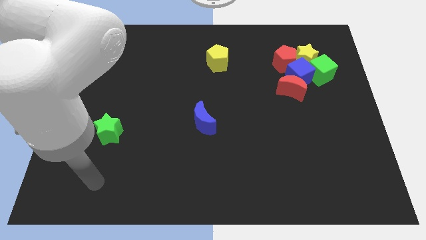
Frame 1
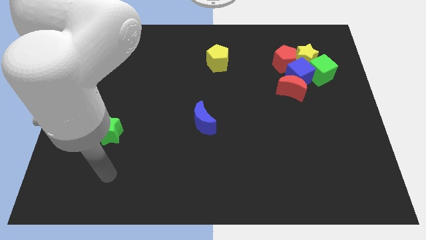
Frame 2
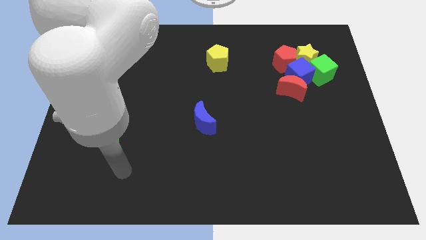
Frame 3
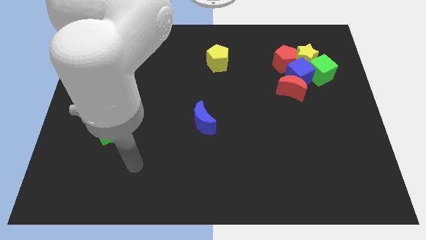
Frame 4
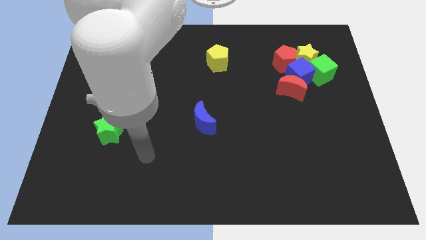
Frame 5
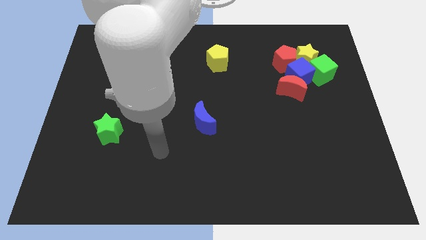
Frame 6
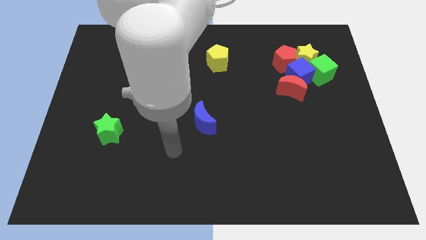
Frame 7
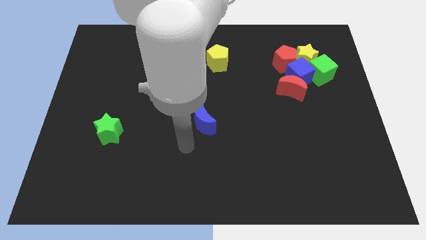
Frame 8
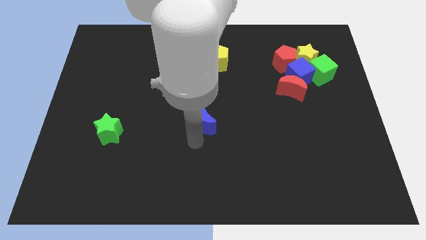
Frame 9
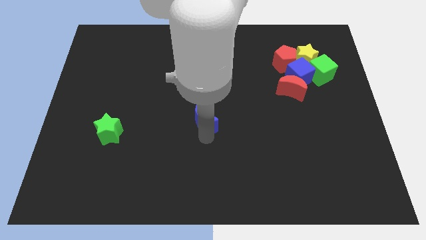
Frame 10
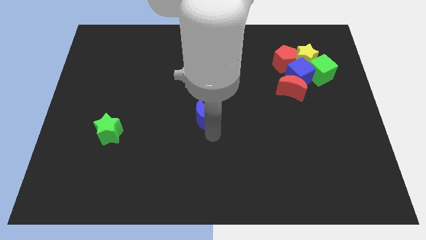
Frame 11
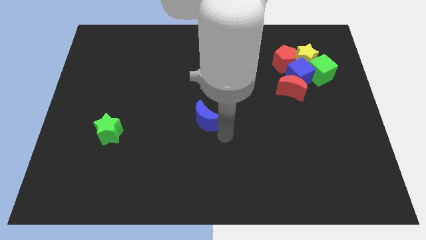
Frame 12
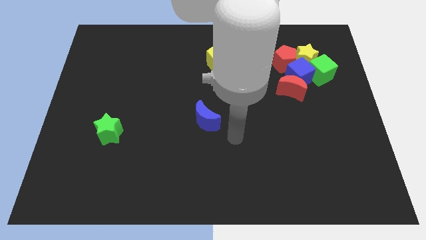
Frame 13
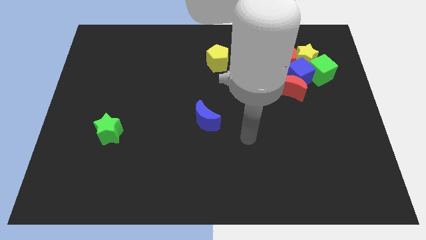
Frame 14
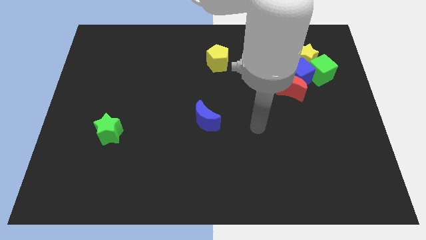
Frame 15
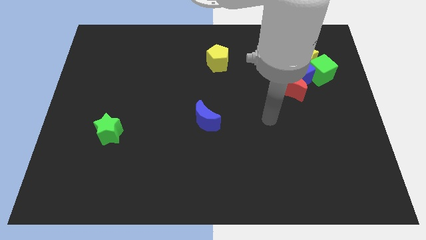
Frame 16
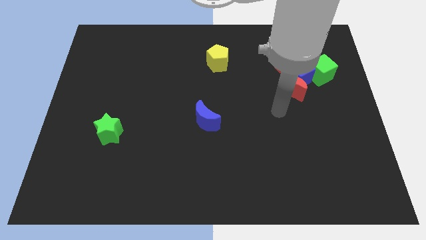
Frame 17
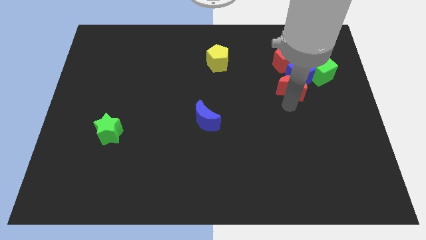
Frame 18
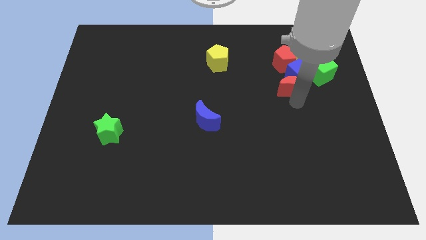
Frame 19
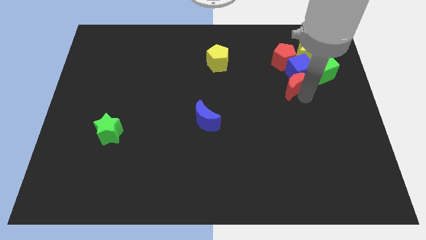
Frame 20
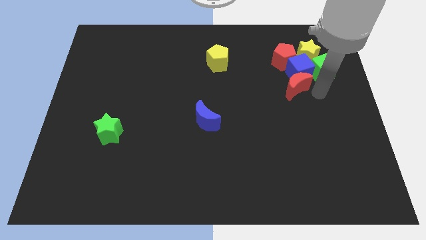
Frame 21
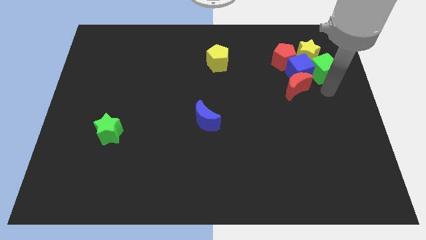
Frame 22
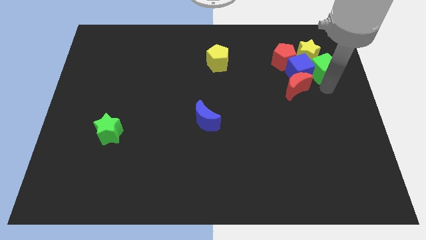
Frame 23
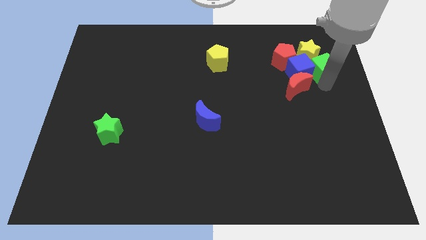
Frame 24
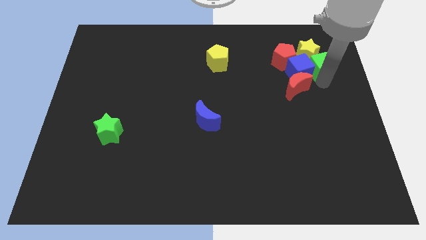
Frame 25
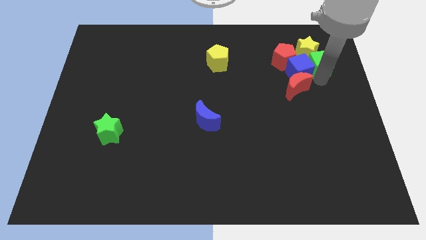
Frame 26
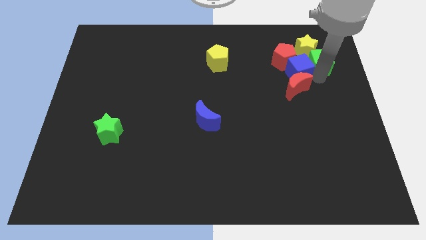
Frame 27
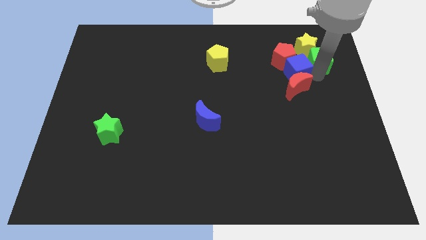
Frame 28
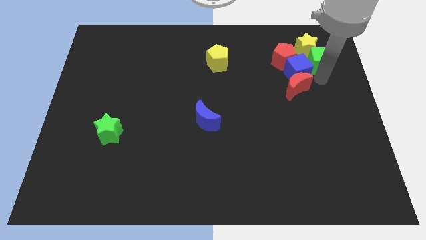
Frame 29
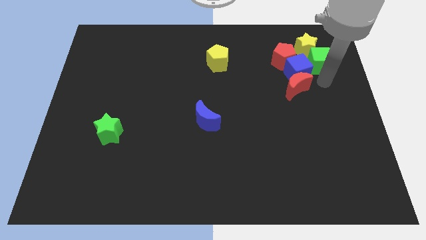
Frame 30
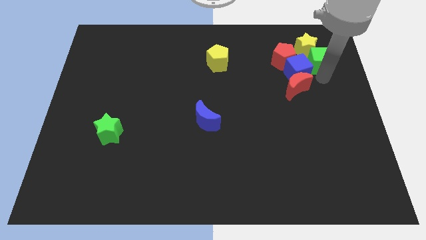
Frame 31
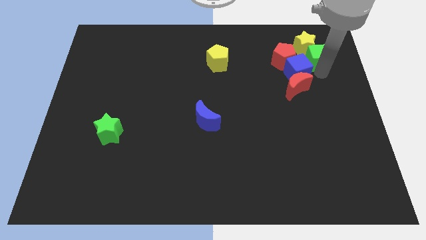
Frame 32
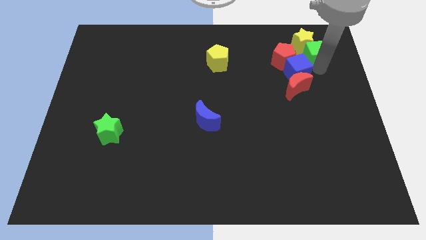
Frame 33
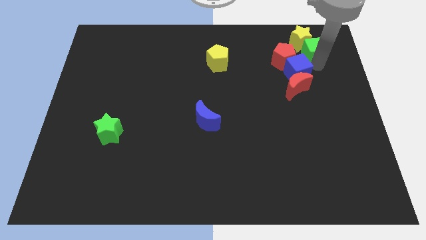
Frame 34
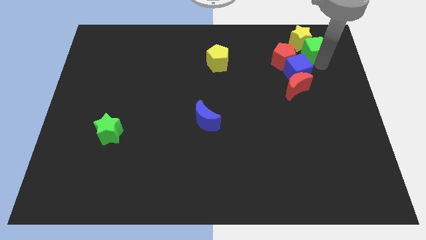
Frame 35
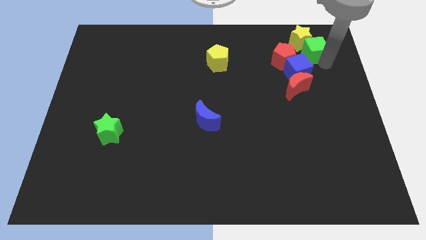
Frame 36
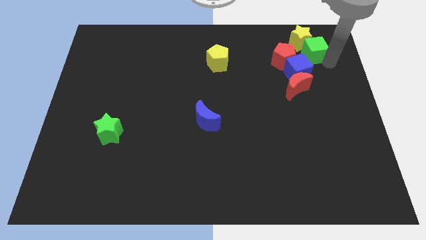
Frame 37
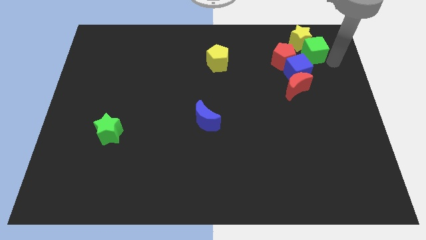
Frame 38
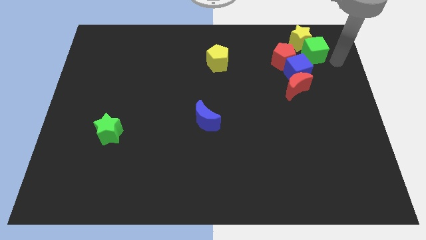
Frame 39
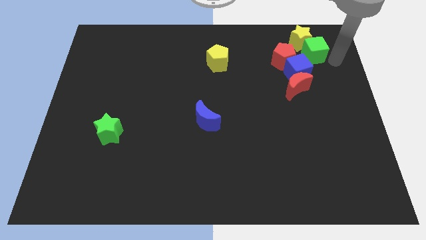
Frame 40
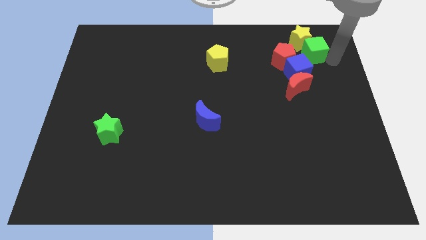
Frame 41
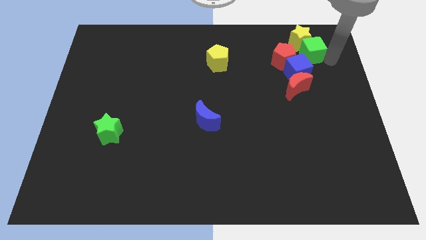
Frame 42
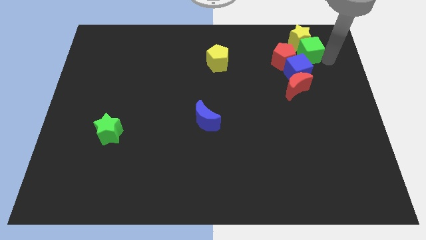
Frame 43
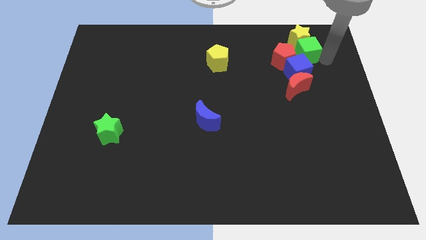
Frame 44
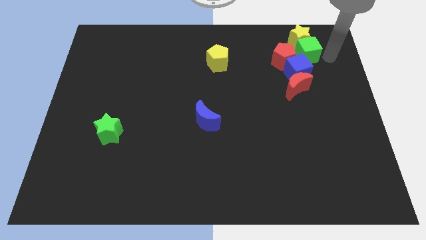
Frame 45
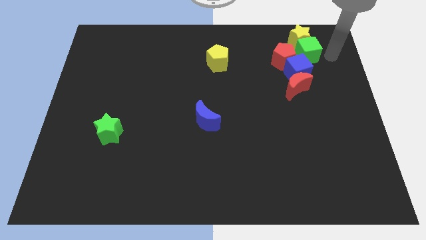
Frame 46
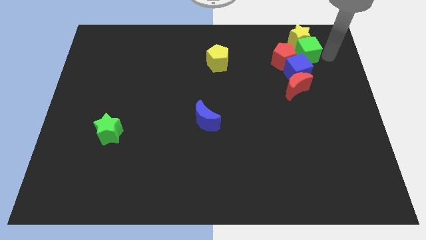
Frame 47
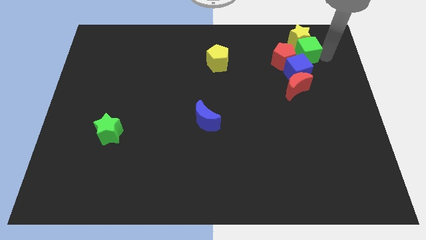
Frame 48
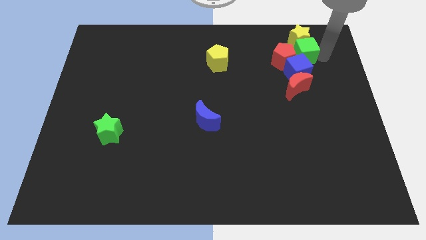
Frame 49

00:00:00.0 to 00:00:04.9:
slide the green cube close to the red pentagon

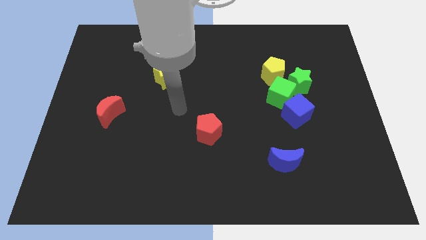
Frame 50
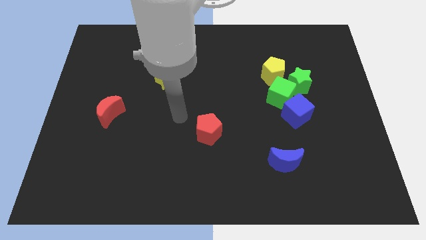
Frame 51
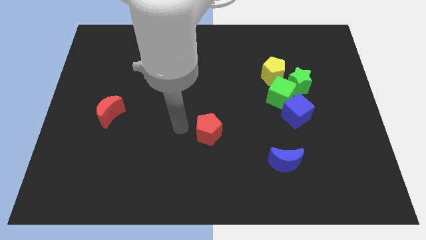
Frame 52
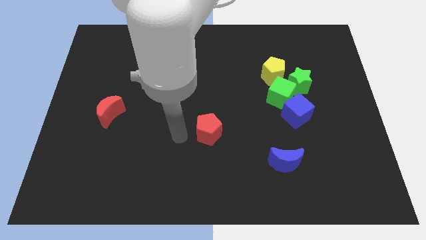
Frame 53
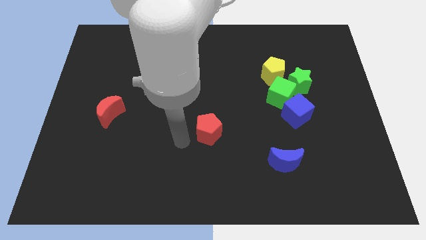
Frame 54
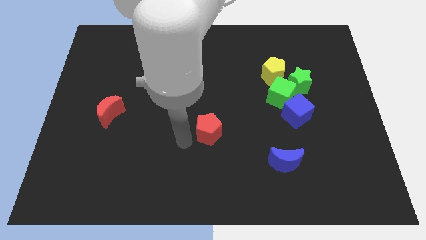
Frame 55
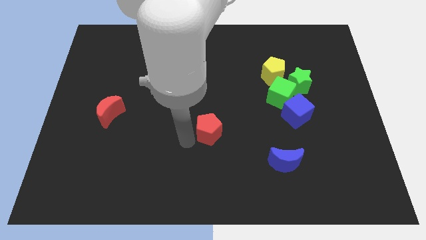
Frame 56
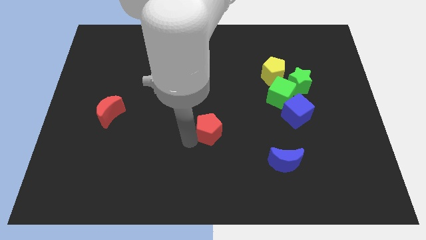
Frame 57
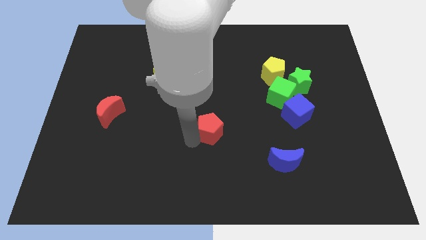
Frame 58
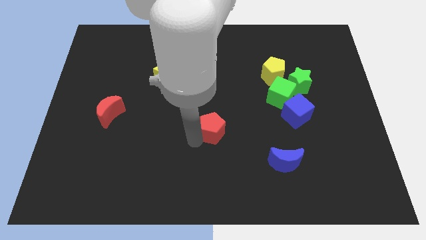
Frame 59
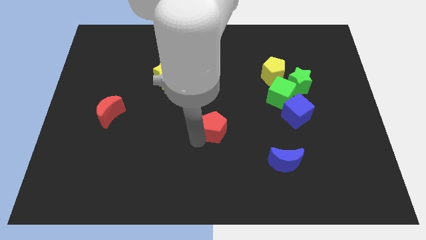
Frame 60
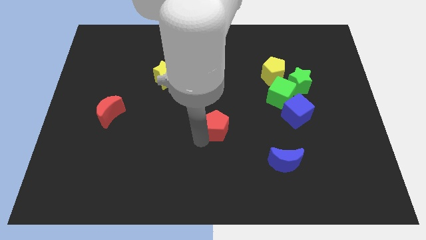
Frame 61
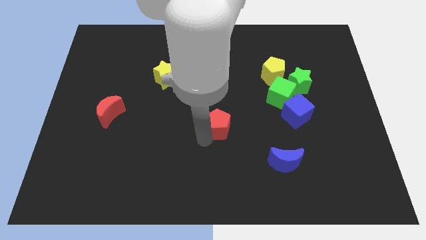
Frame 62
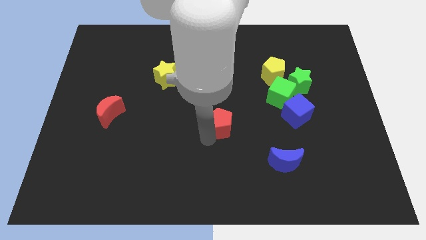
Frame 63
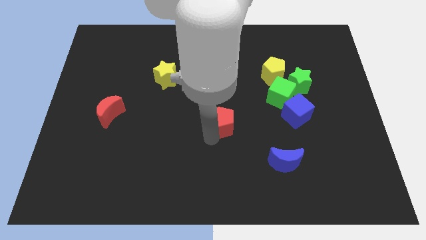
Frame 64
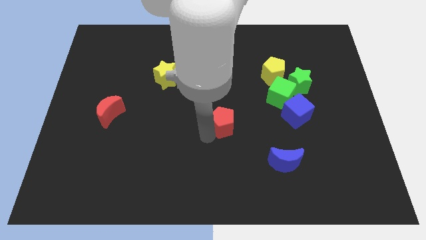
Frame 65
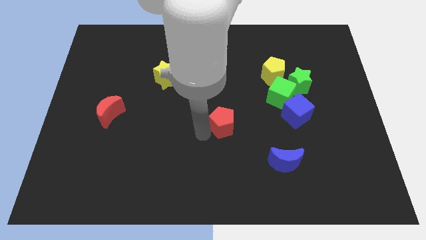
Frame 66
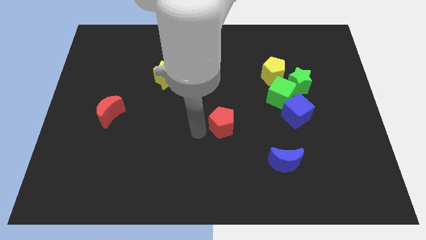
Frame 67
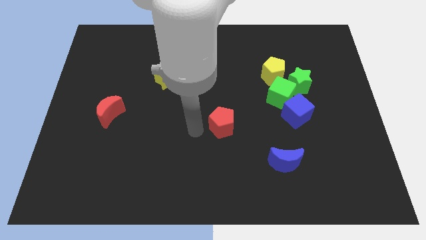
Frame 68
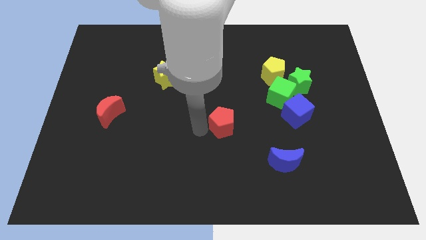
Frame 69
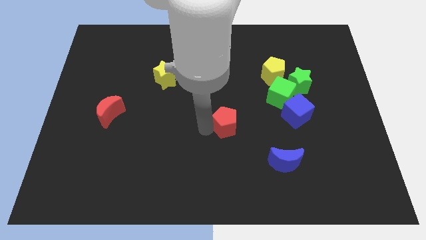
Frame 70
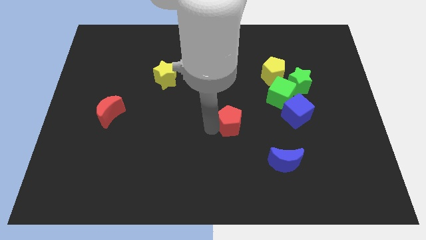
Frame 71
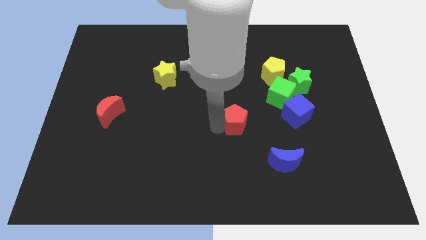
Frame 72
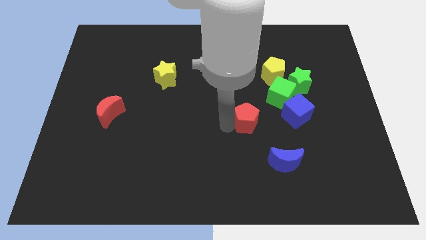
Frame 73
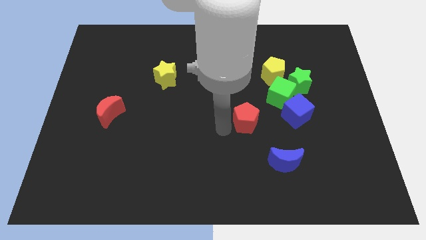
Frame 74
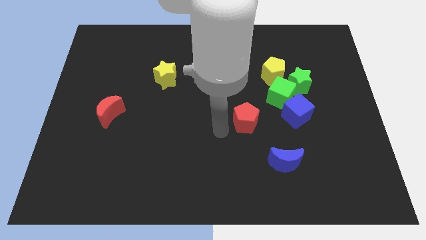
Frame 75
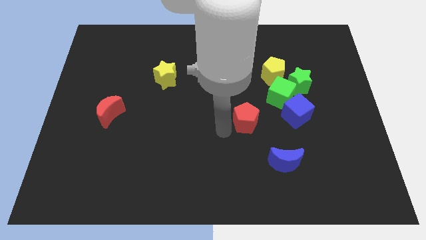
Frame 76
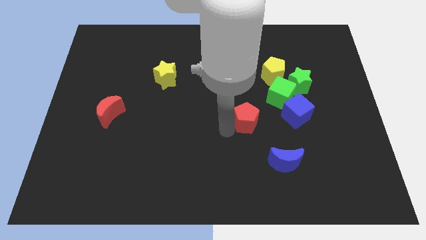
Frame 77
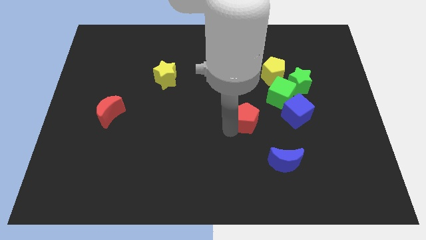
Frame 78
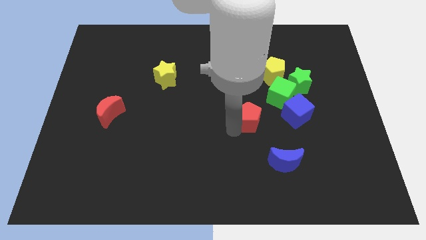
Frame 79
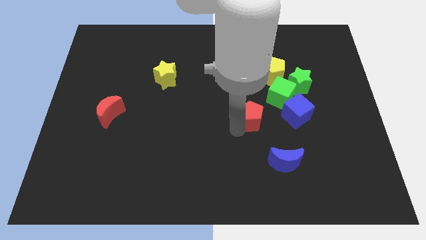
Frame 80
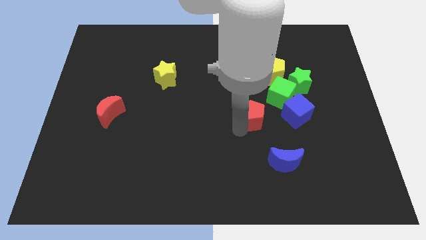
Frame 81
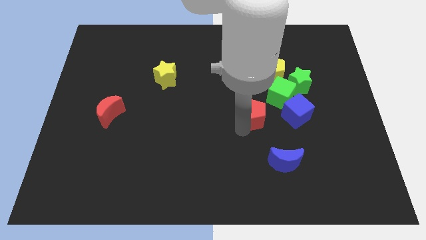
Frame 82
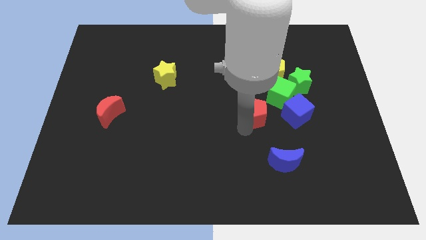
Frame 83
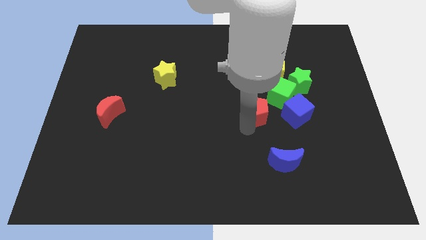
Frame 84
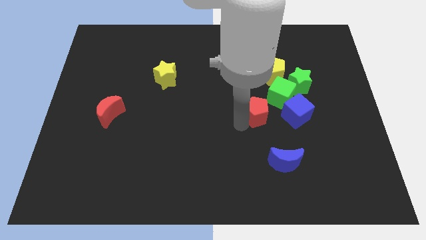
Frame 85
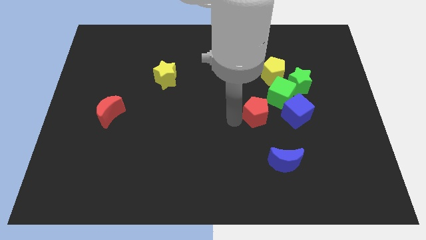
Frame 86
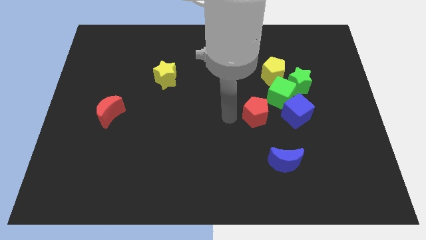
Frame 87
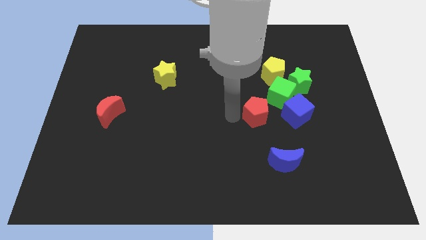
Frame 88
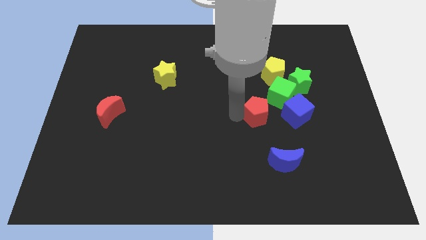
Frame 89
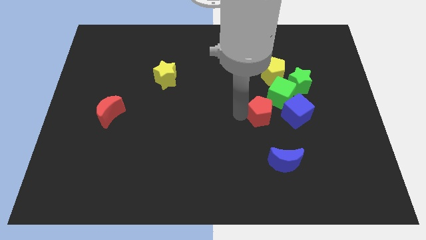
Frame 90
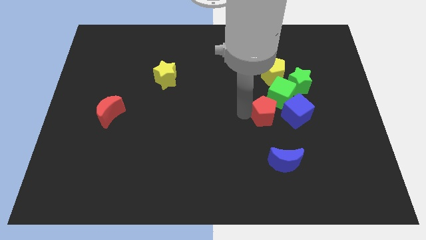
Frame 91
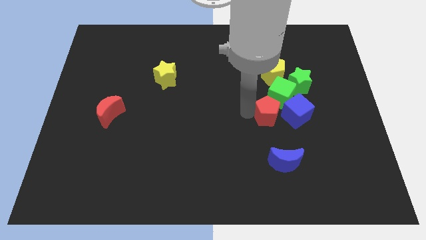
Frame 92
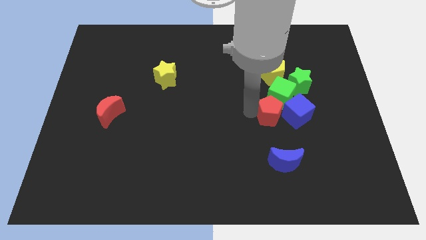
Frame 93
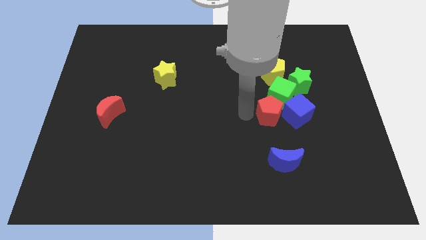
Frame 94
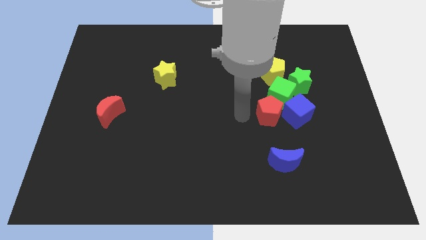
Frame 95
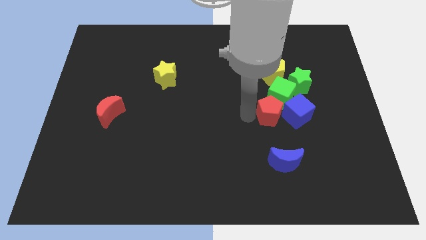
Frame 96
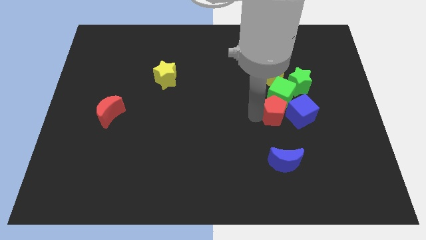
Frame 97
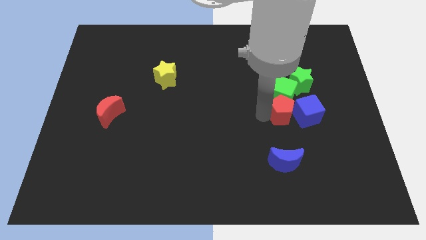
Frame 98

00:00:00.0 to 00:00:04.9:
push the red pentagon towards the blue cube
